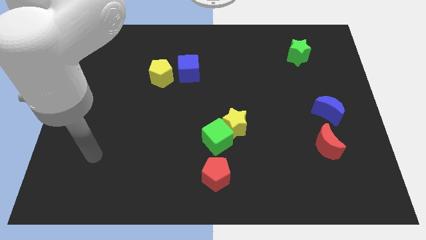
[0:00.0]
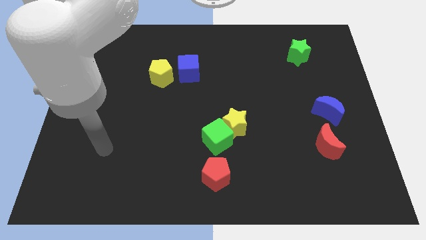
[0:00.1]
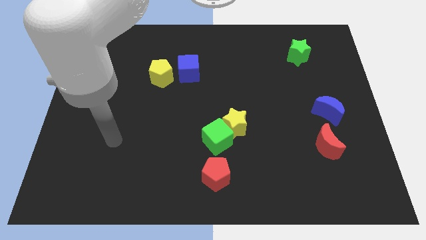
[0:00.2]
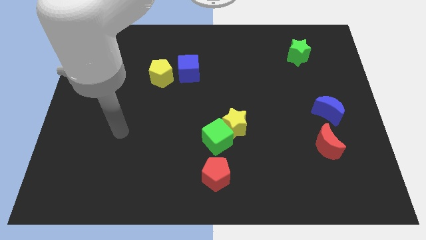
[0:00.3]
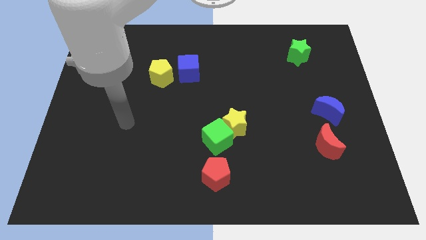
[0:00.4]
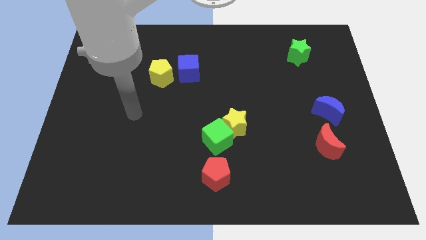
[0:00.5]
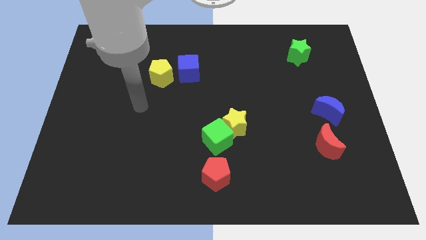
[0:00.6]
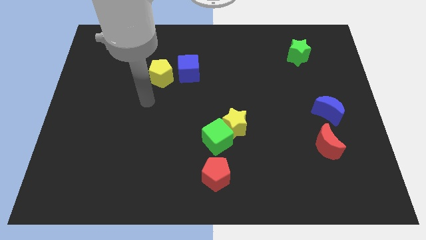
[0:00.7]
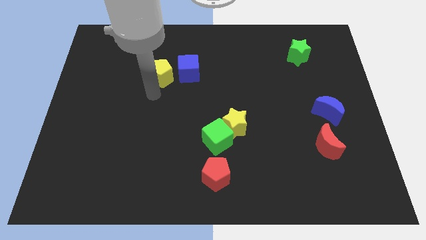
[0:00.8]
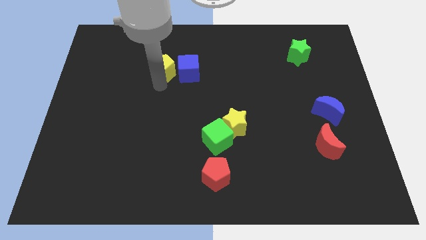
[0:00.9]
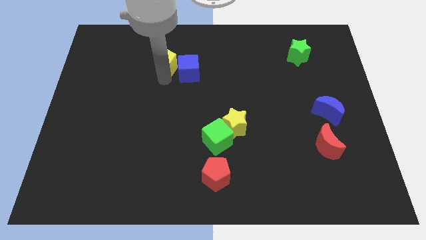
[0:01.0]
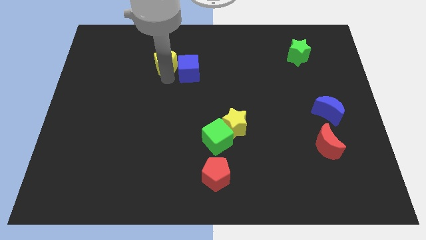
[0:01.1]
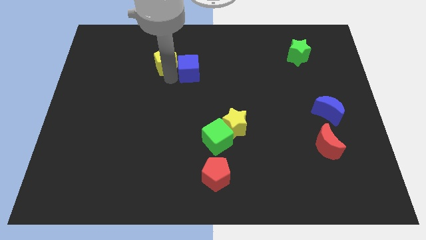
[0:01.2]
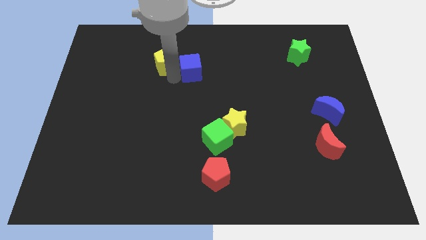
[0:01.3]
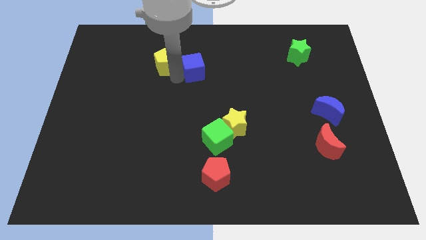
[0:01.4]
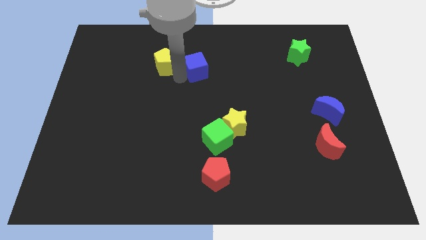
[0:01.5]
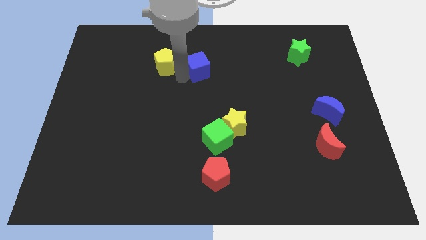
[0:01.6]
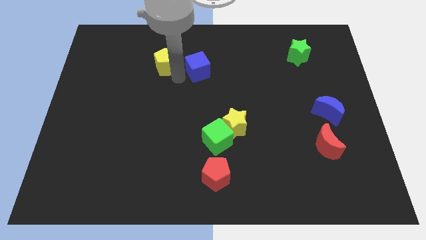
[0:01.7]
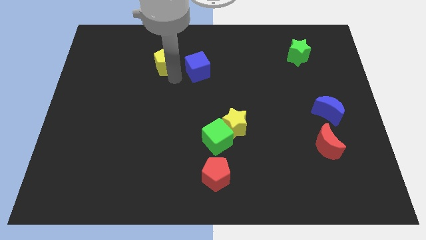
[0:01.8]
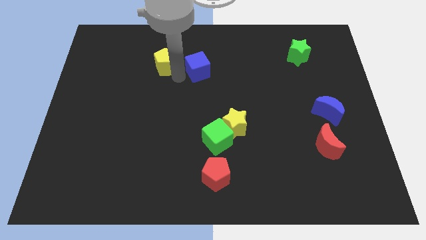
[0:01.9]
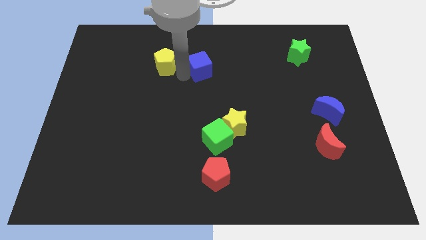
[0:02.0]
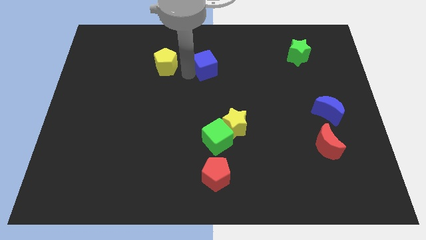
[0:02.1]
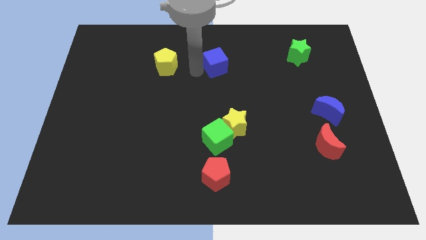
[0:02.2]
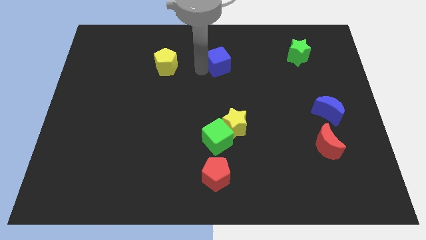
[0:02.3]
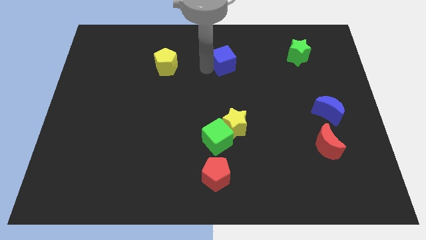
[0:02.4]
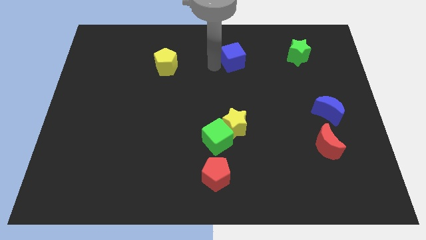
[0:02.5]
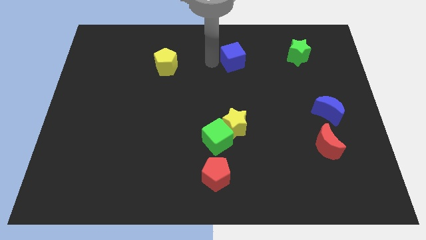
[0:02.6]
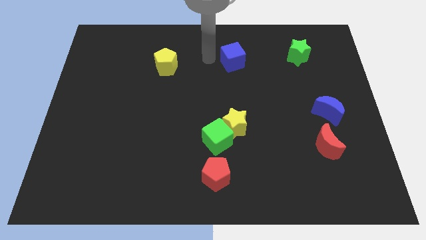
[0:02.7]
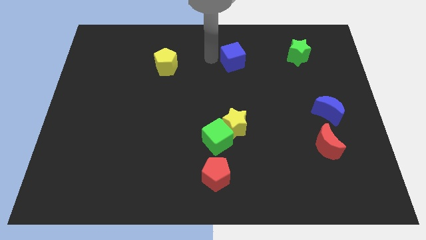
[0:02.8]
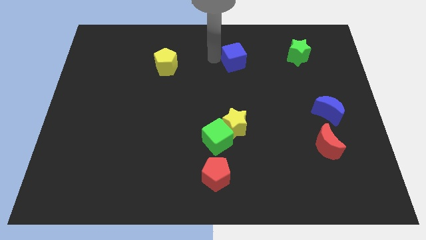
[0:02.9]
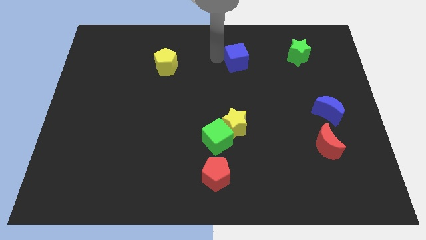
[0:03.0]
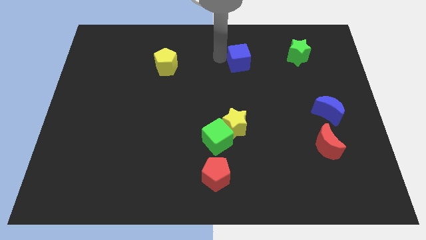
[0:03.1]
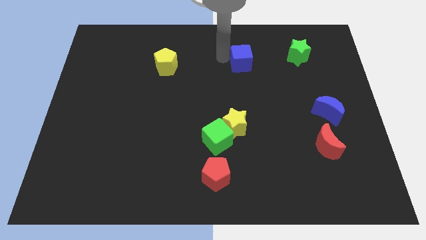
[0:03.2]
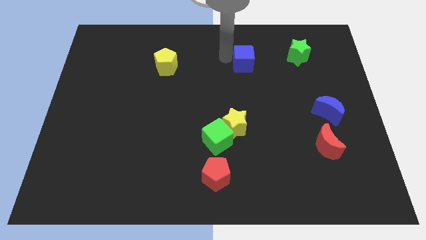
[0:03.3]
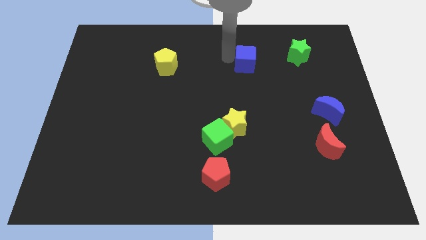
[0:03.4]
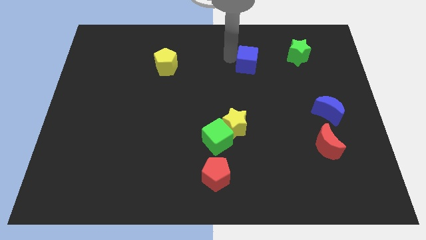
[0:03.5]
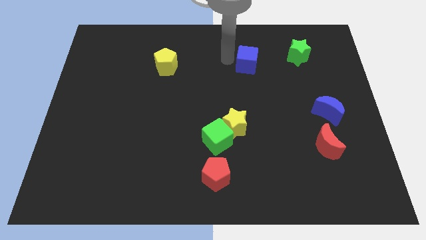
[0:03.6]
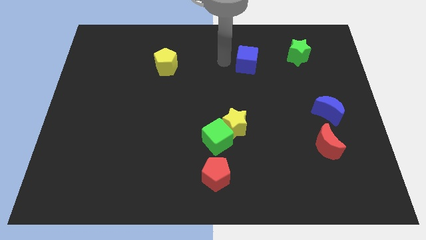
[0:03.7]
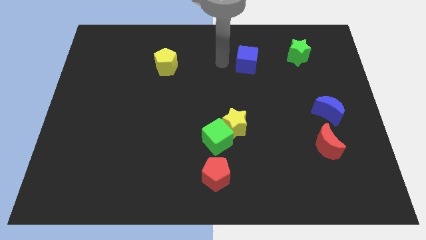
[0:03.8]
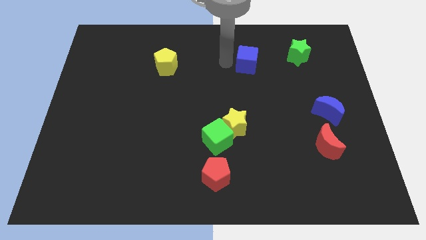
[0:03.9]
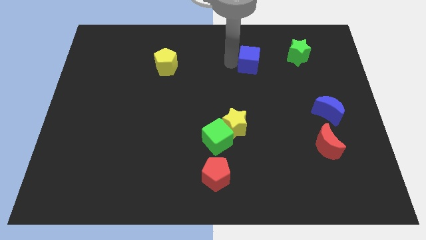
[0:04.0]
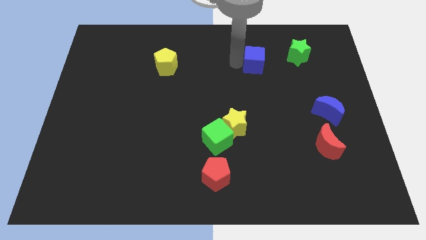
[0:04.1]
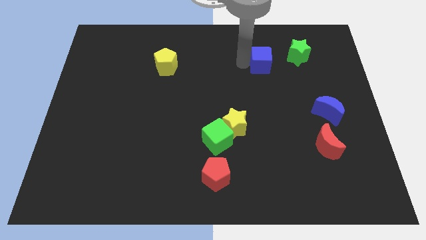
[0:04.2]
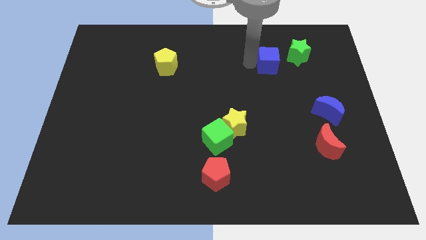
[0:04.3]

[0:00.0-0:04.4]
push the blue cube right

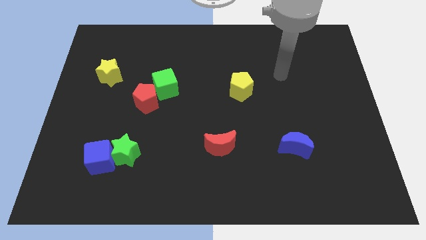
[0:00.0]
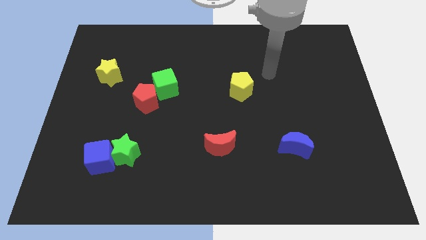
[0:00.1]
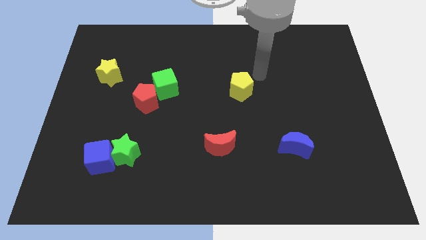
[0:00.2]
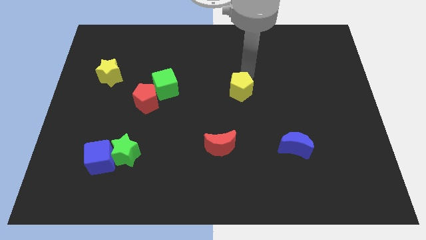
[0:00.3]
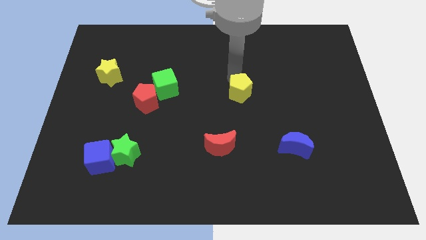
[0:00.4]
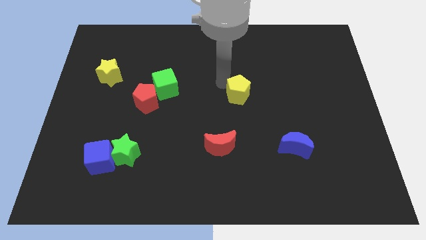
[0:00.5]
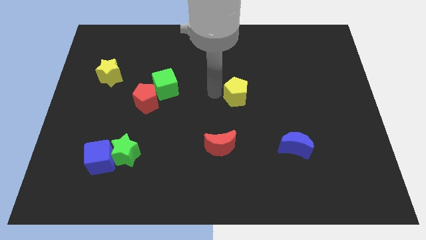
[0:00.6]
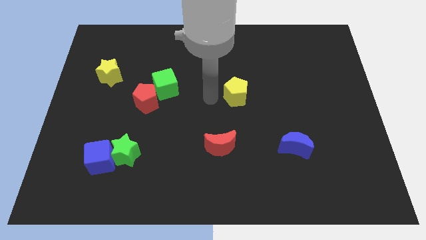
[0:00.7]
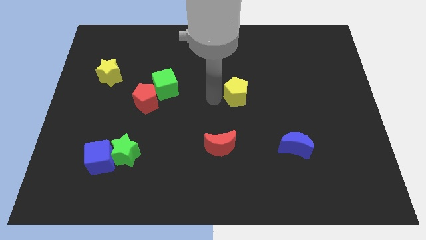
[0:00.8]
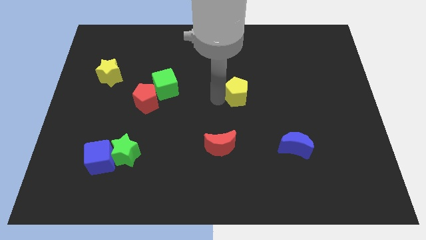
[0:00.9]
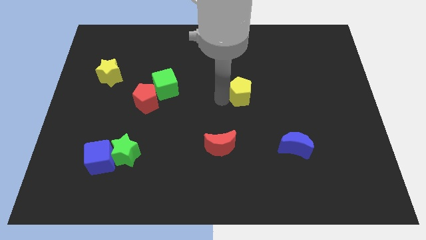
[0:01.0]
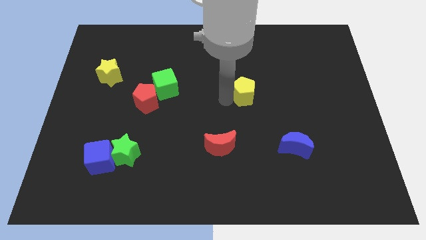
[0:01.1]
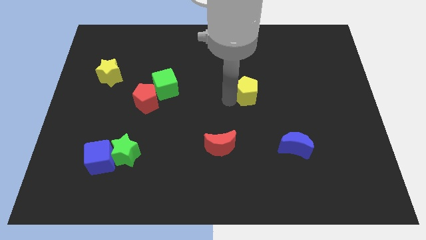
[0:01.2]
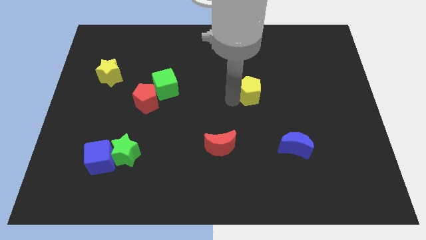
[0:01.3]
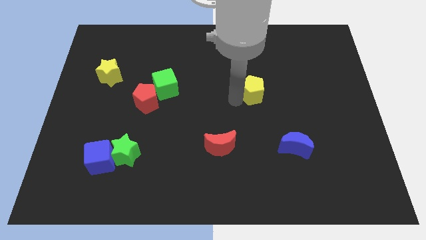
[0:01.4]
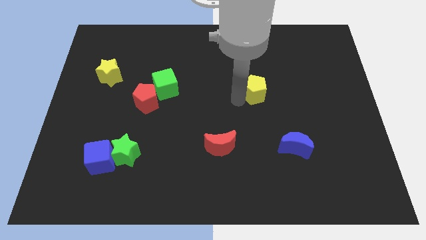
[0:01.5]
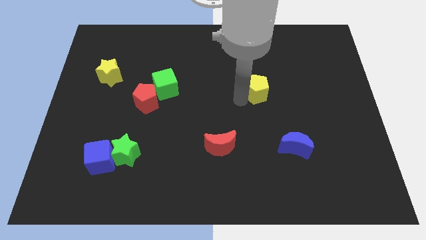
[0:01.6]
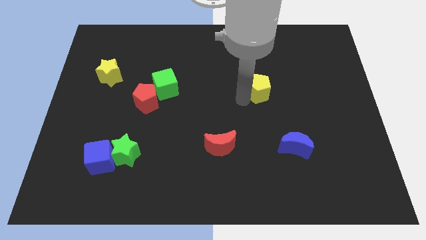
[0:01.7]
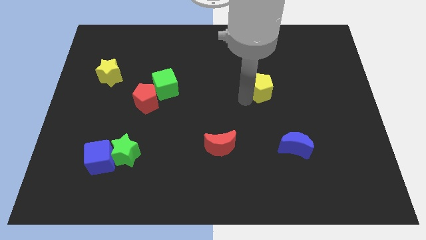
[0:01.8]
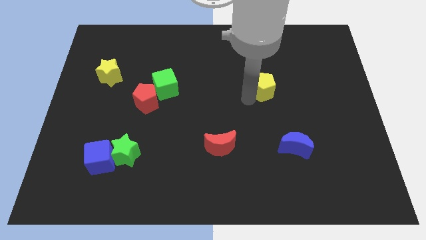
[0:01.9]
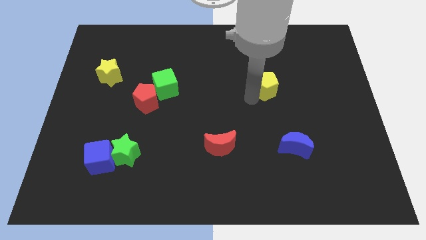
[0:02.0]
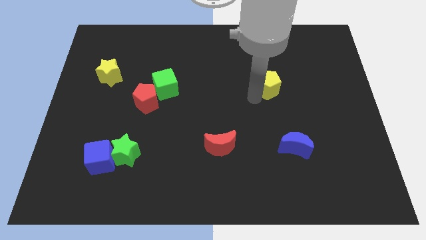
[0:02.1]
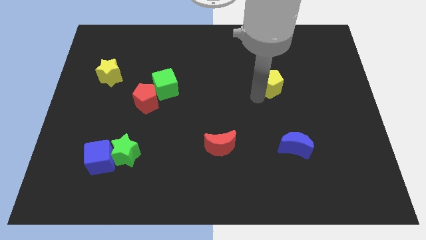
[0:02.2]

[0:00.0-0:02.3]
slide the yellow pentagon right a little bit

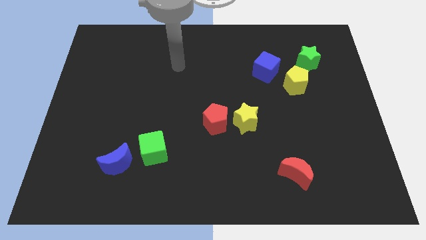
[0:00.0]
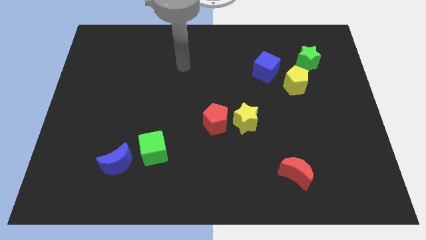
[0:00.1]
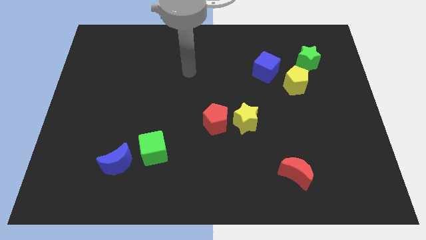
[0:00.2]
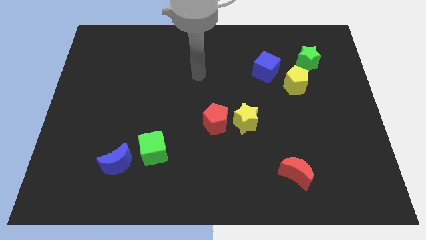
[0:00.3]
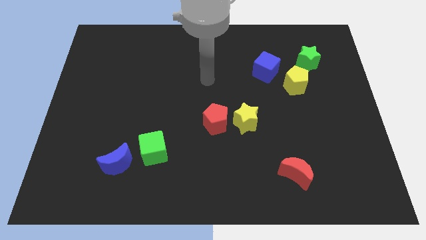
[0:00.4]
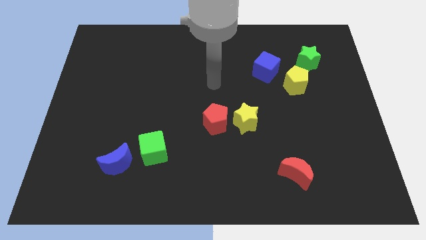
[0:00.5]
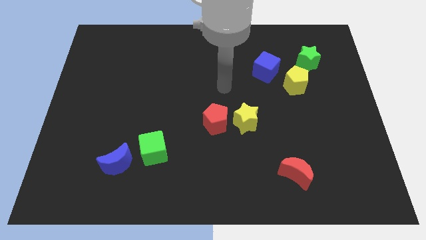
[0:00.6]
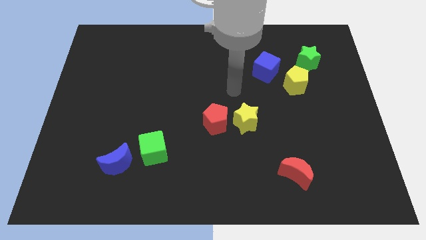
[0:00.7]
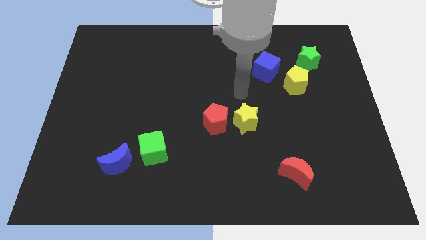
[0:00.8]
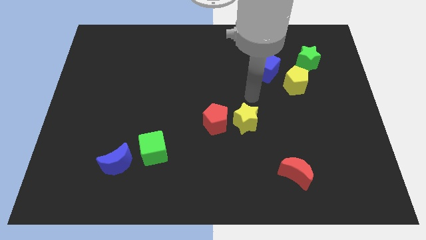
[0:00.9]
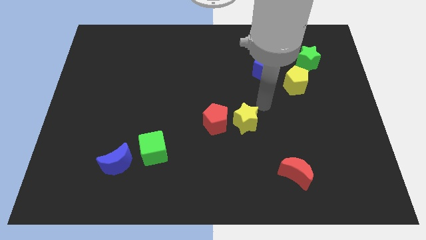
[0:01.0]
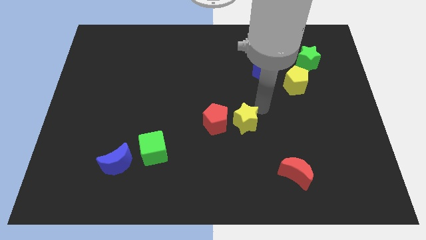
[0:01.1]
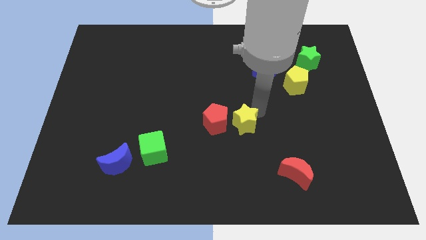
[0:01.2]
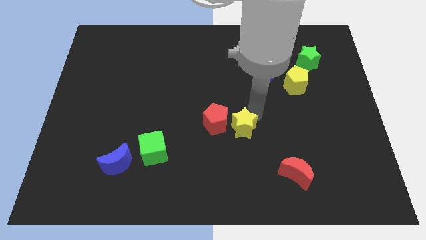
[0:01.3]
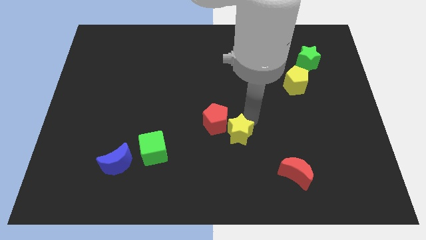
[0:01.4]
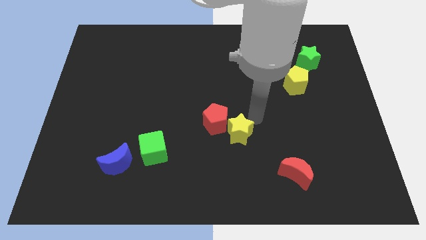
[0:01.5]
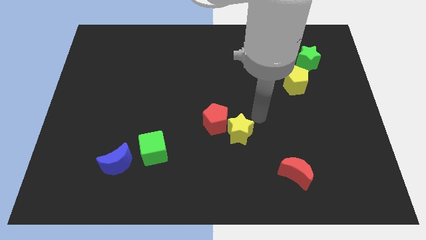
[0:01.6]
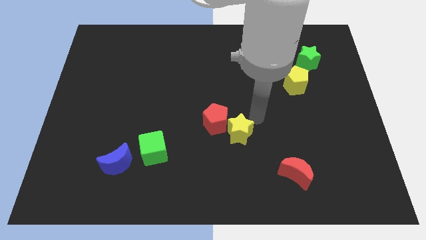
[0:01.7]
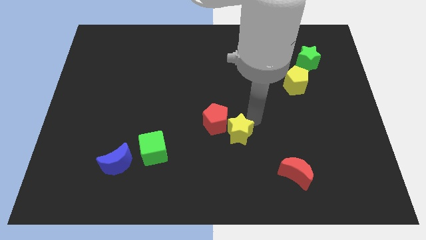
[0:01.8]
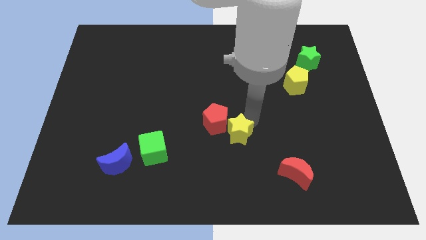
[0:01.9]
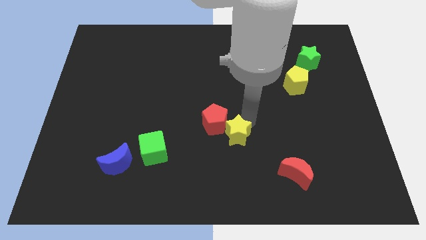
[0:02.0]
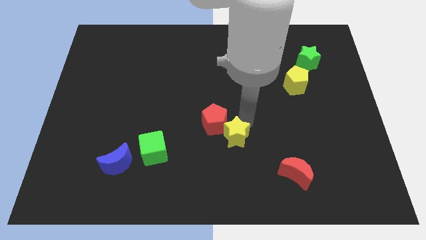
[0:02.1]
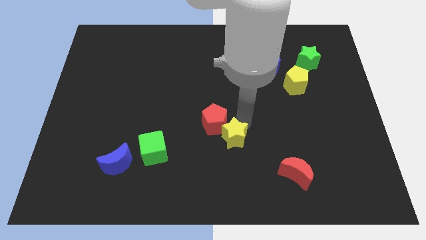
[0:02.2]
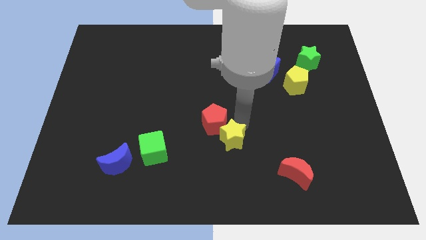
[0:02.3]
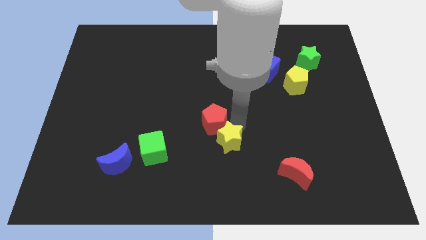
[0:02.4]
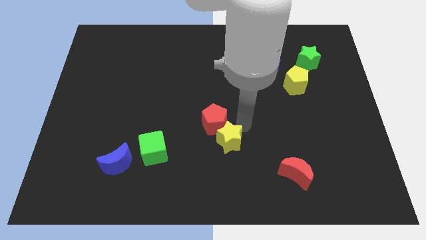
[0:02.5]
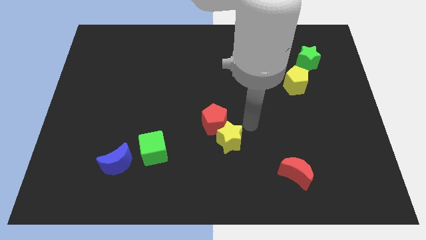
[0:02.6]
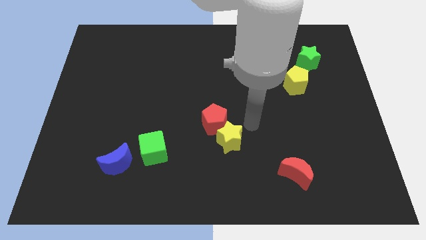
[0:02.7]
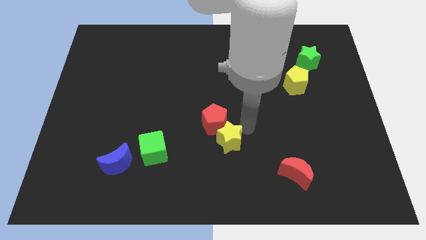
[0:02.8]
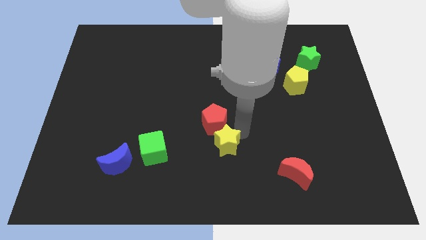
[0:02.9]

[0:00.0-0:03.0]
push the yellow star downwards and then to the left a little bit
